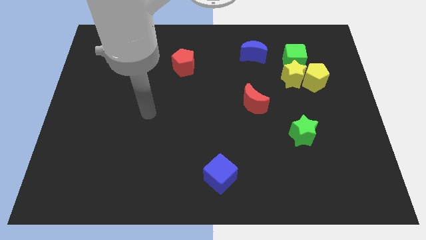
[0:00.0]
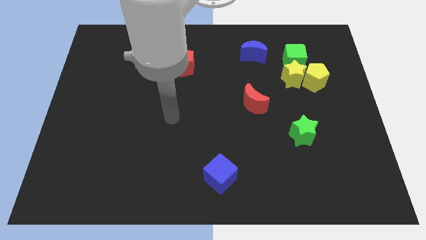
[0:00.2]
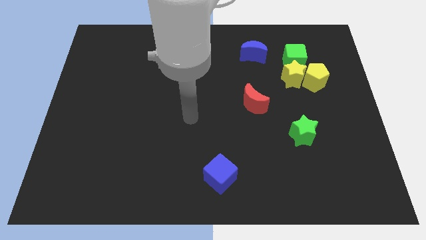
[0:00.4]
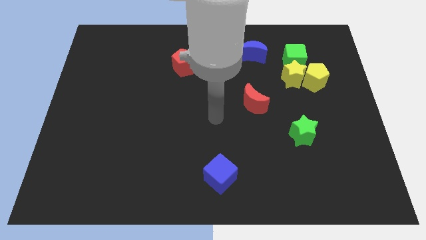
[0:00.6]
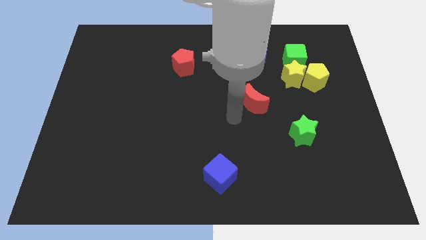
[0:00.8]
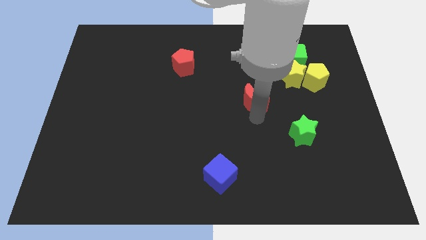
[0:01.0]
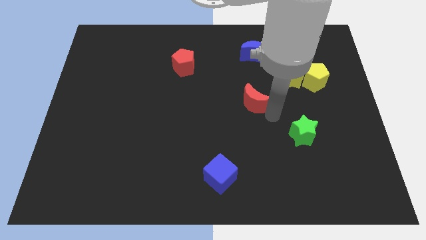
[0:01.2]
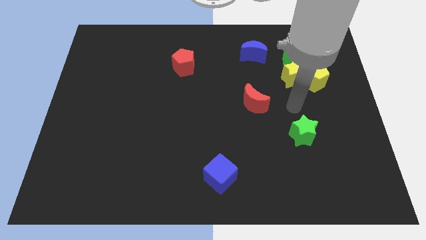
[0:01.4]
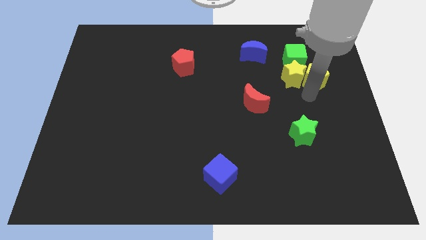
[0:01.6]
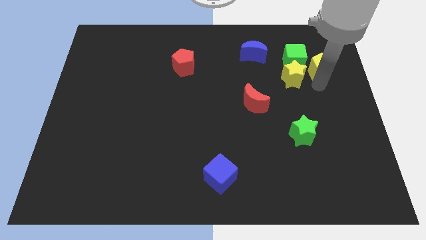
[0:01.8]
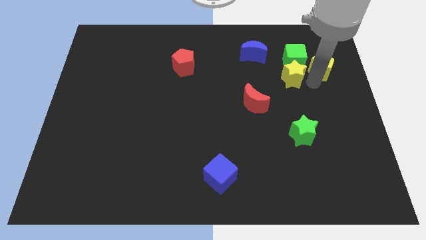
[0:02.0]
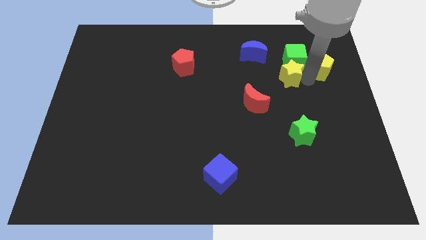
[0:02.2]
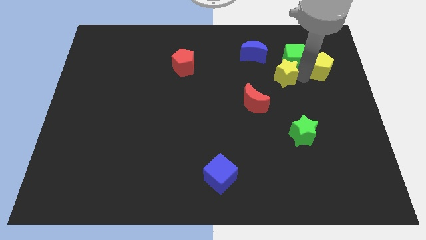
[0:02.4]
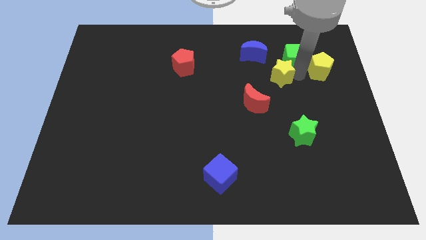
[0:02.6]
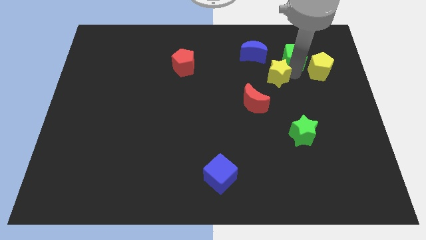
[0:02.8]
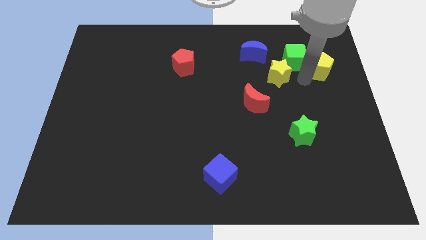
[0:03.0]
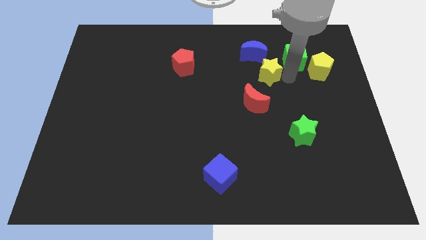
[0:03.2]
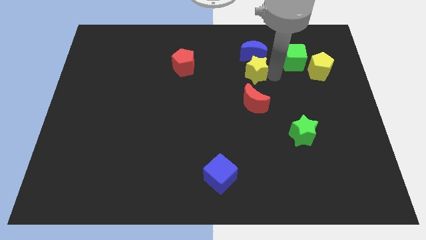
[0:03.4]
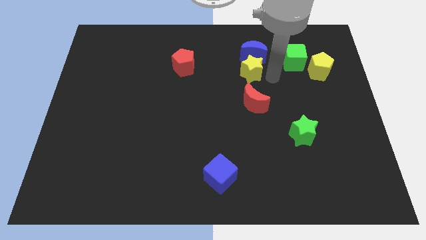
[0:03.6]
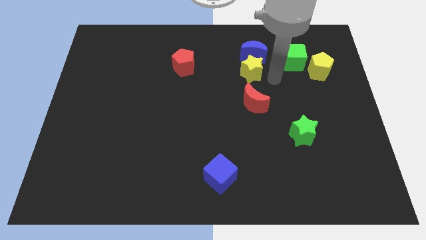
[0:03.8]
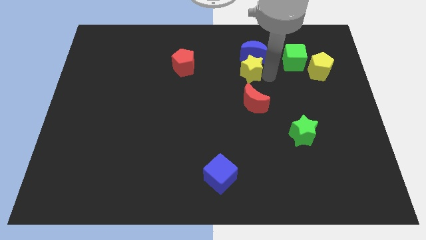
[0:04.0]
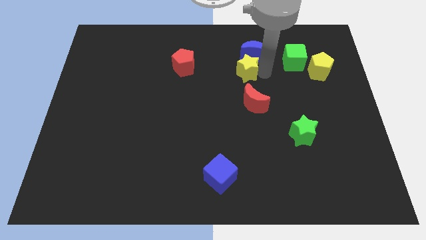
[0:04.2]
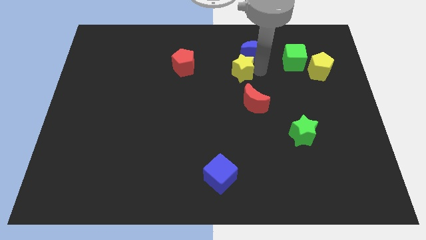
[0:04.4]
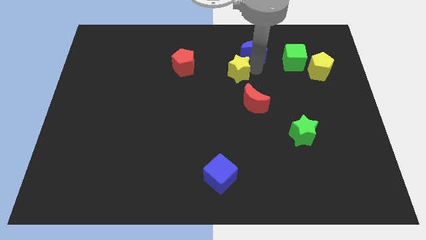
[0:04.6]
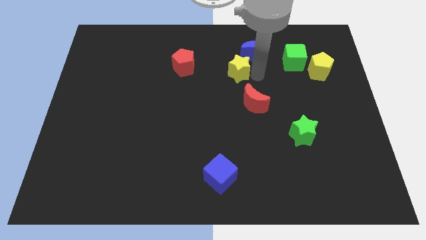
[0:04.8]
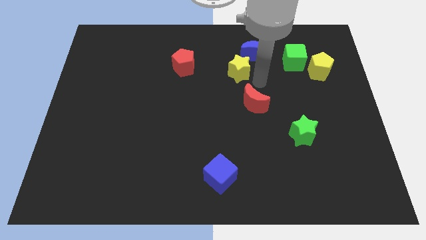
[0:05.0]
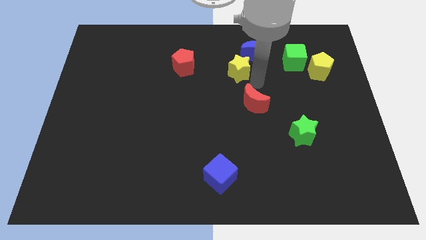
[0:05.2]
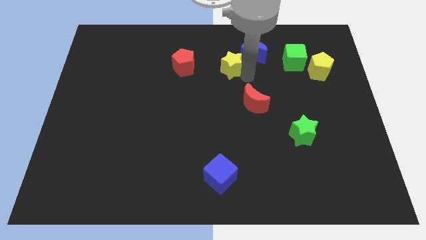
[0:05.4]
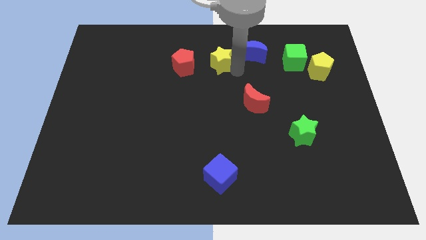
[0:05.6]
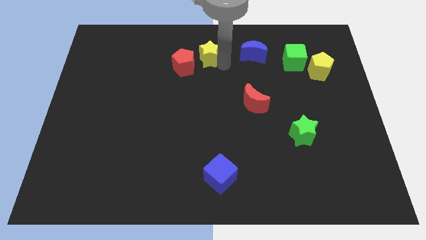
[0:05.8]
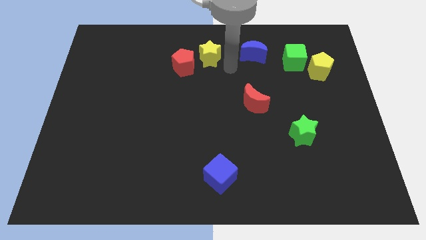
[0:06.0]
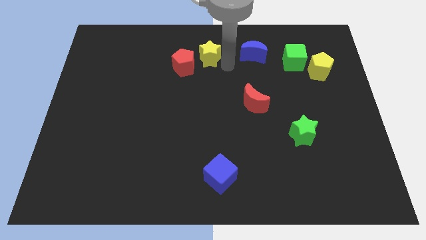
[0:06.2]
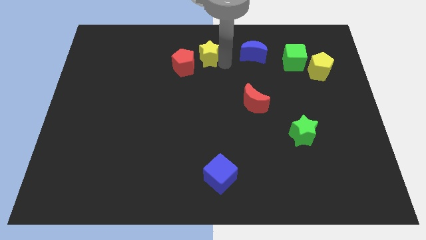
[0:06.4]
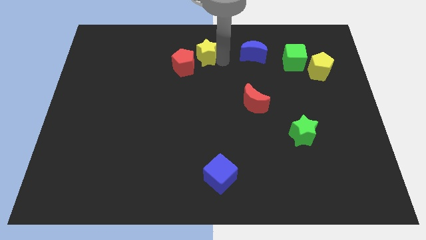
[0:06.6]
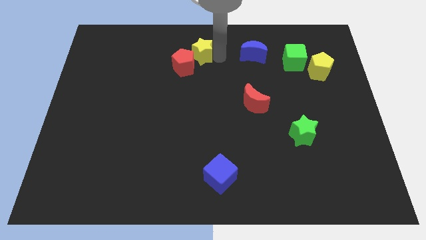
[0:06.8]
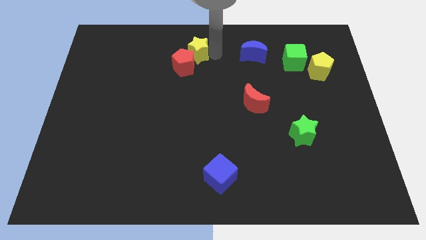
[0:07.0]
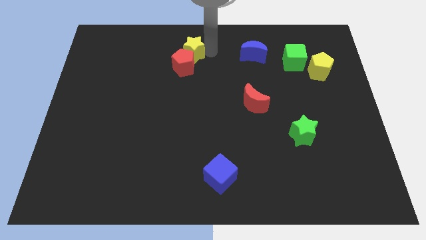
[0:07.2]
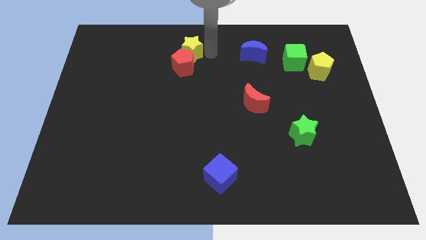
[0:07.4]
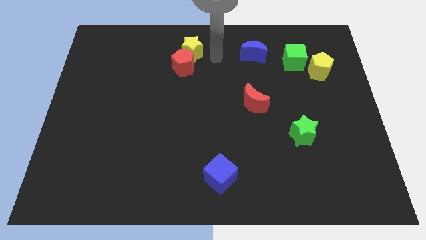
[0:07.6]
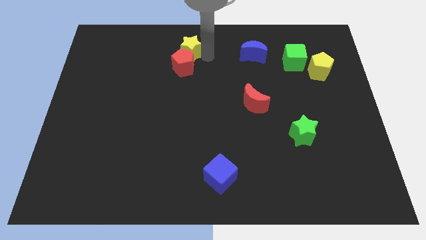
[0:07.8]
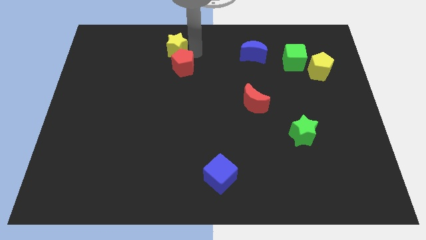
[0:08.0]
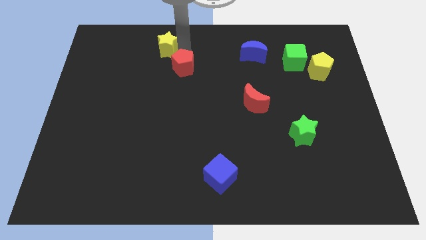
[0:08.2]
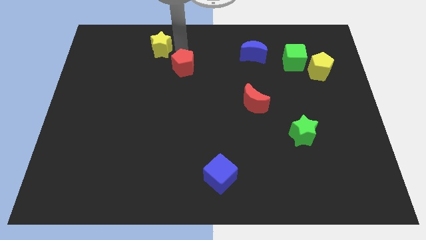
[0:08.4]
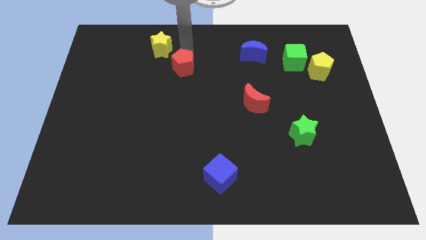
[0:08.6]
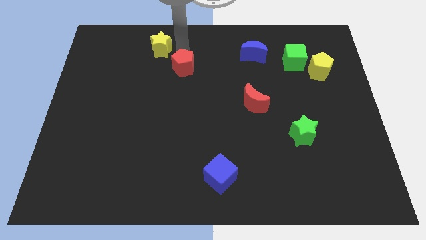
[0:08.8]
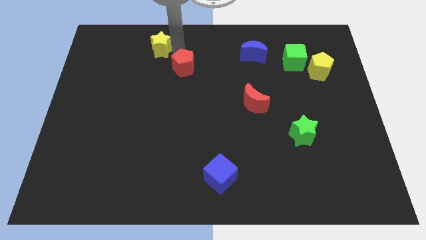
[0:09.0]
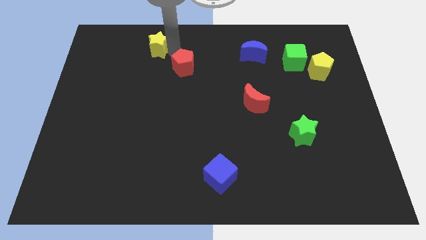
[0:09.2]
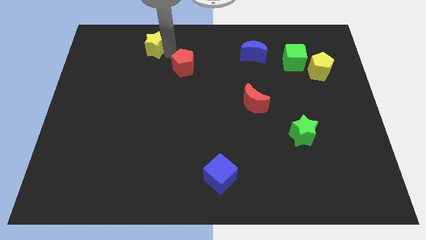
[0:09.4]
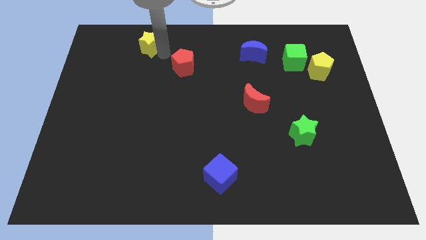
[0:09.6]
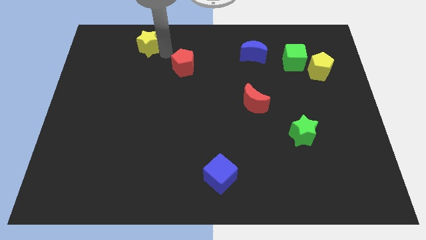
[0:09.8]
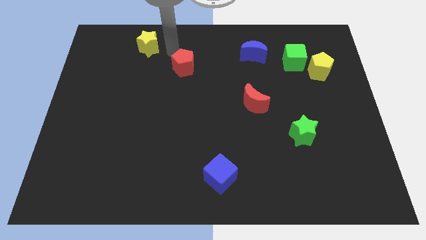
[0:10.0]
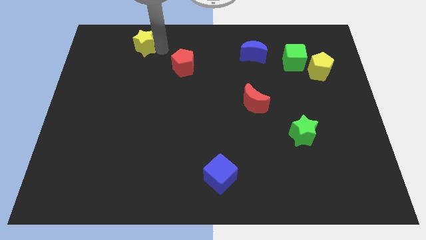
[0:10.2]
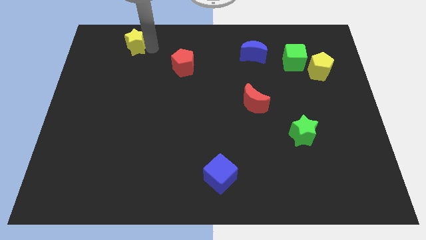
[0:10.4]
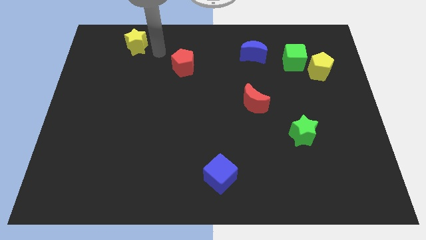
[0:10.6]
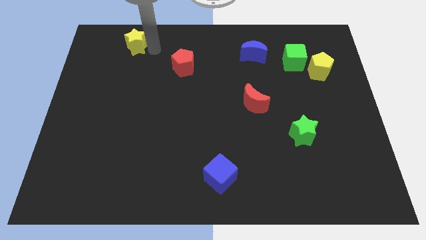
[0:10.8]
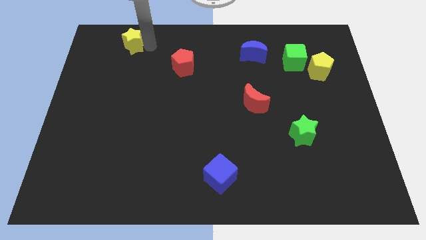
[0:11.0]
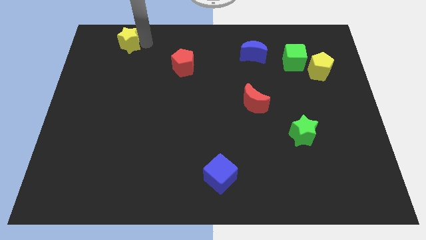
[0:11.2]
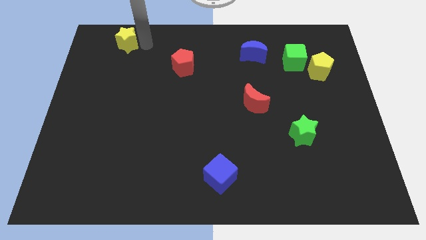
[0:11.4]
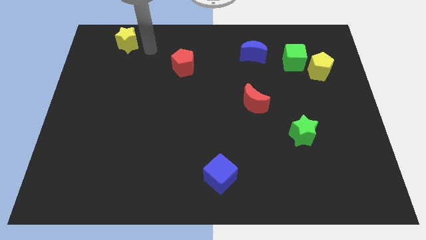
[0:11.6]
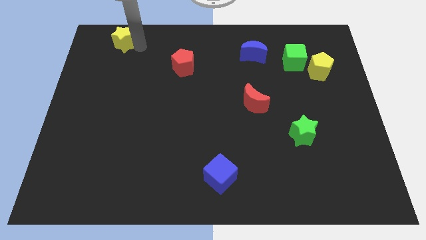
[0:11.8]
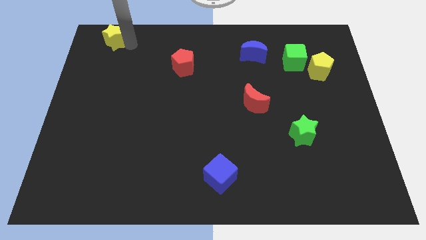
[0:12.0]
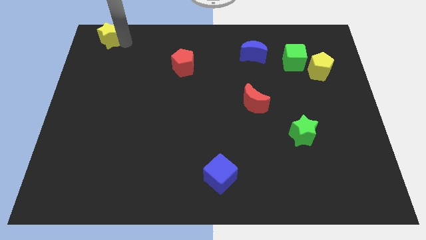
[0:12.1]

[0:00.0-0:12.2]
put the yellow star to the top left of the board

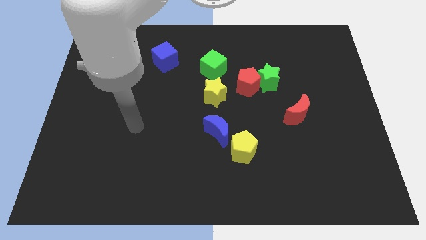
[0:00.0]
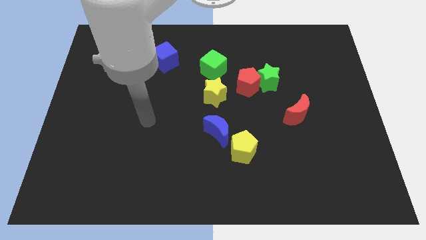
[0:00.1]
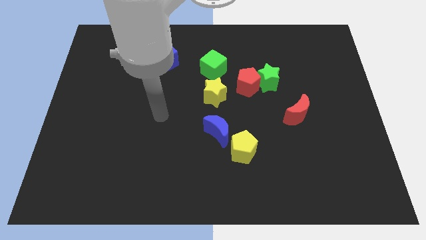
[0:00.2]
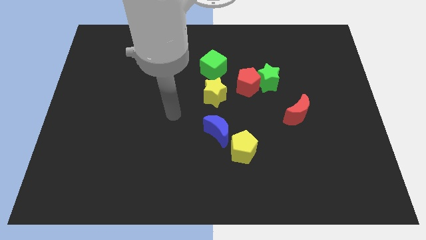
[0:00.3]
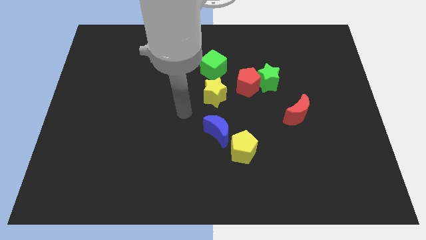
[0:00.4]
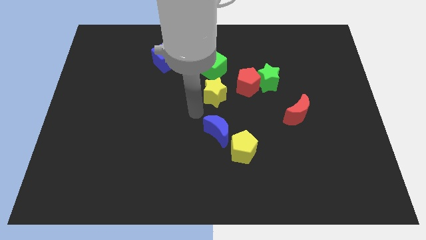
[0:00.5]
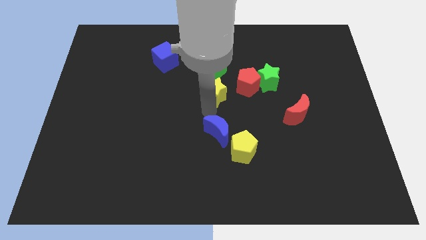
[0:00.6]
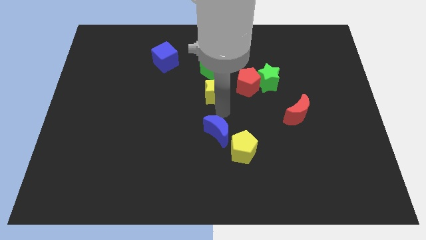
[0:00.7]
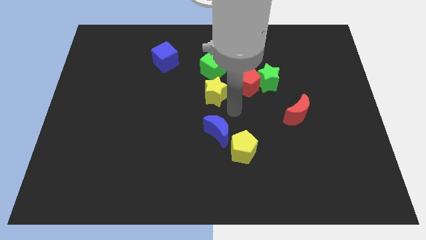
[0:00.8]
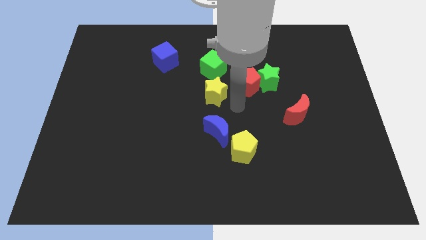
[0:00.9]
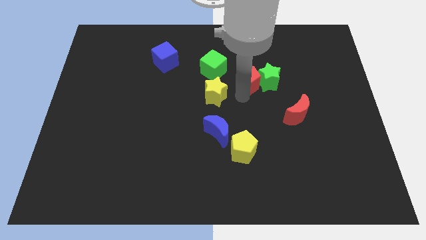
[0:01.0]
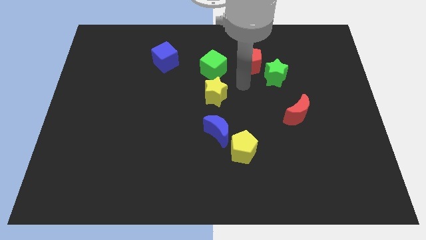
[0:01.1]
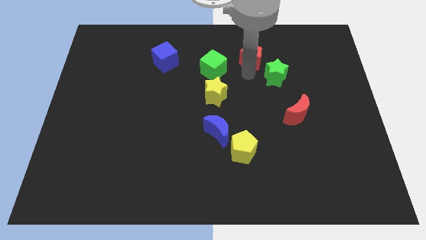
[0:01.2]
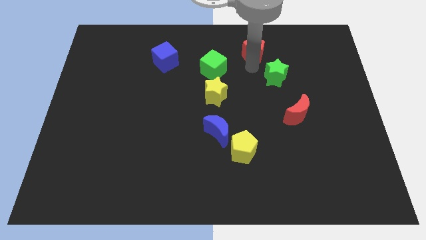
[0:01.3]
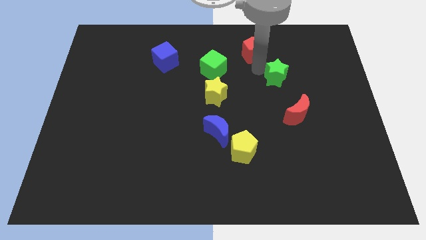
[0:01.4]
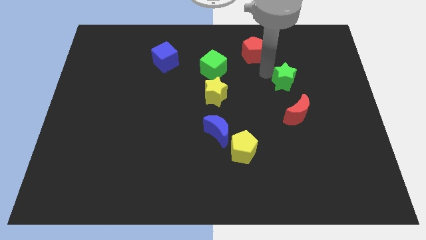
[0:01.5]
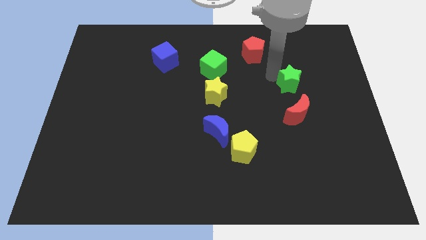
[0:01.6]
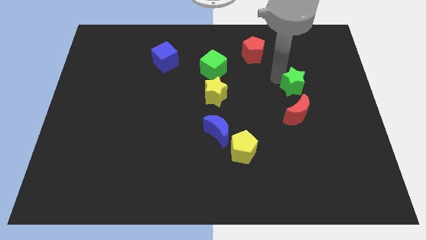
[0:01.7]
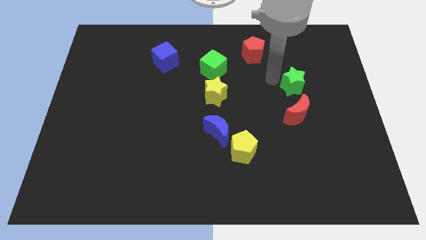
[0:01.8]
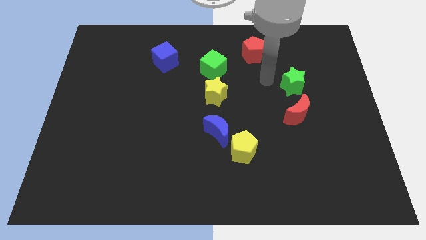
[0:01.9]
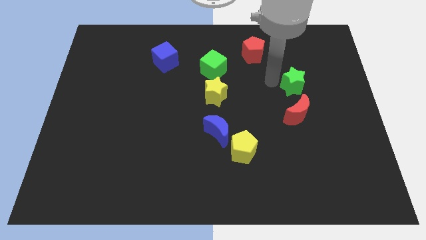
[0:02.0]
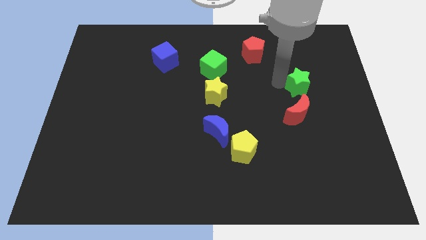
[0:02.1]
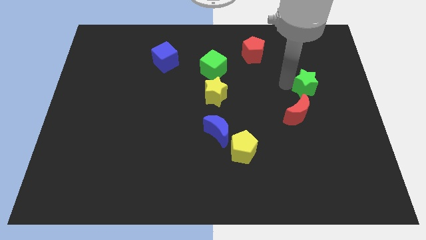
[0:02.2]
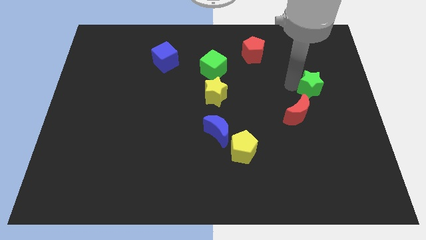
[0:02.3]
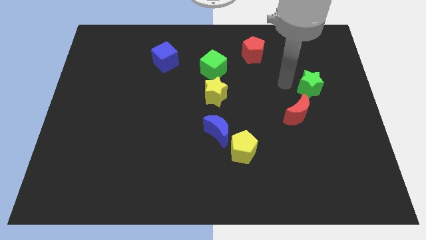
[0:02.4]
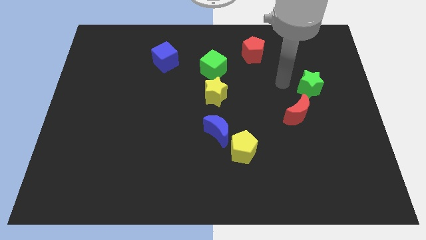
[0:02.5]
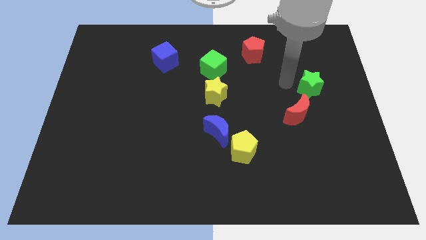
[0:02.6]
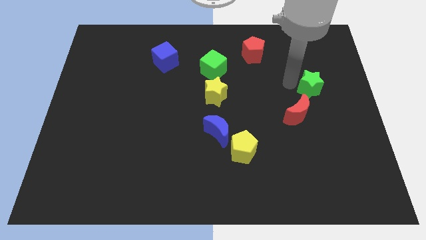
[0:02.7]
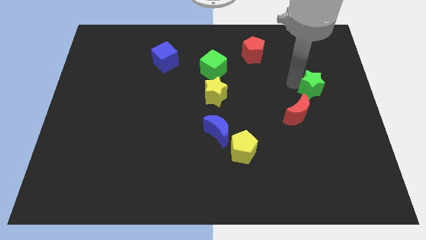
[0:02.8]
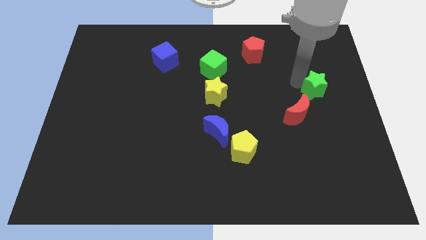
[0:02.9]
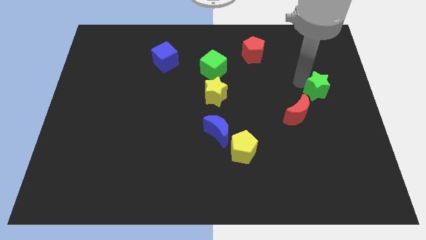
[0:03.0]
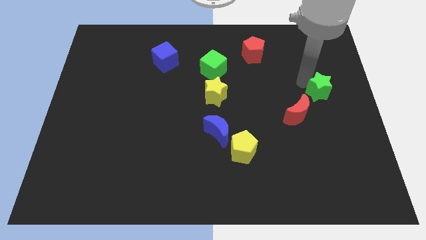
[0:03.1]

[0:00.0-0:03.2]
move the green star to the right side of the board
